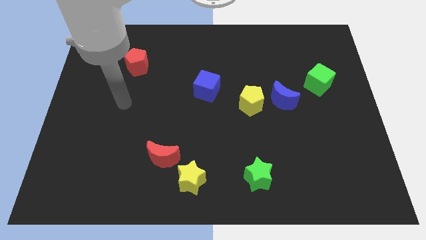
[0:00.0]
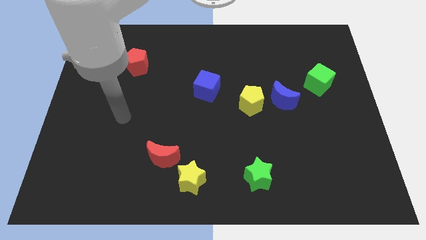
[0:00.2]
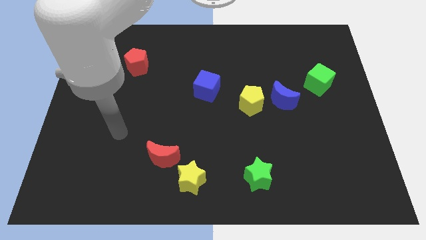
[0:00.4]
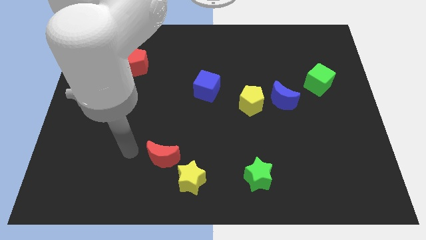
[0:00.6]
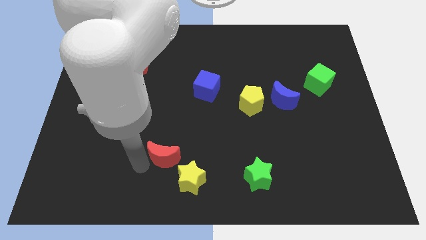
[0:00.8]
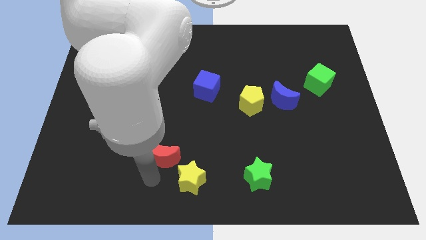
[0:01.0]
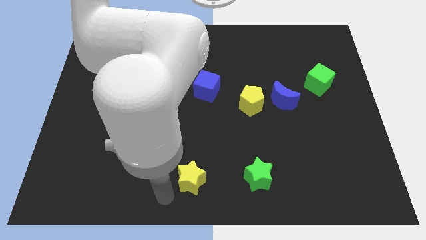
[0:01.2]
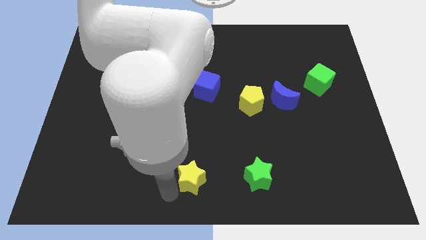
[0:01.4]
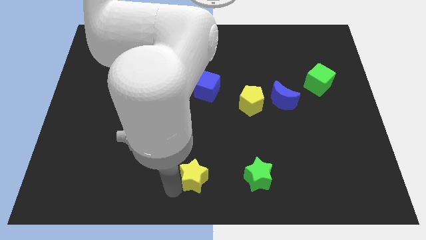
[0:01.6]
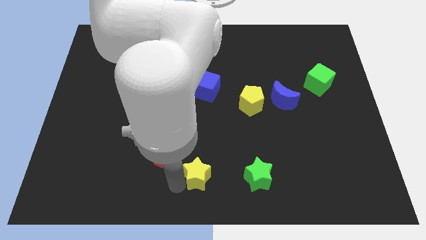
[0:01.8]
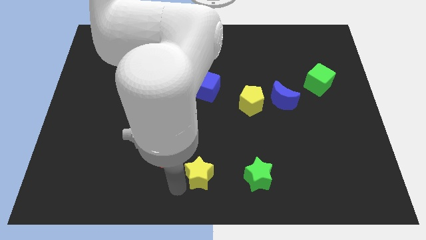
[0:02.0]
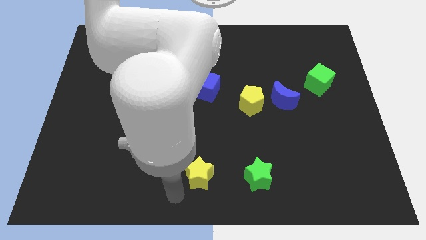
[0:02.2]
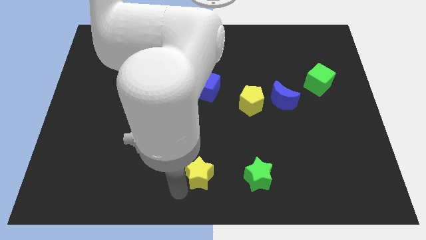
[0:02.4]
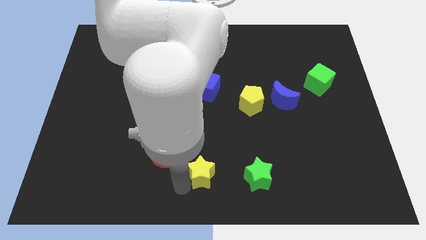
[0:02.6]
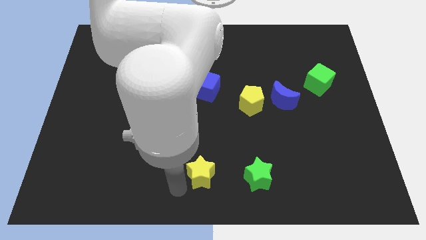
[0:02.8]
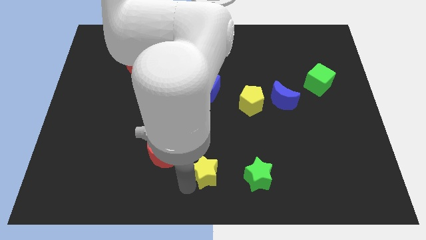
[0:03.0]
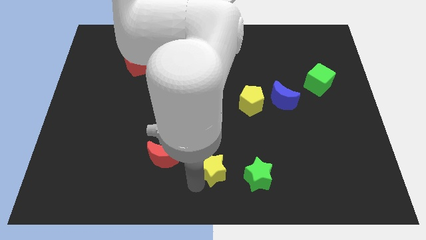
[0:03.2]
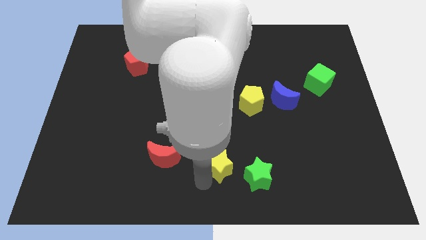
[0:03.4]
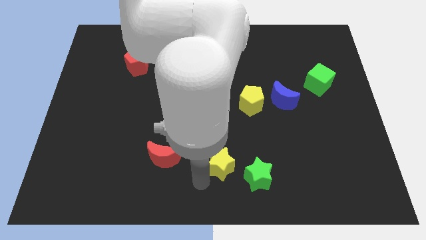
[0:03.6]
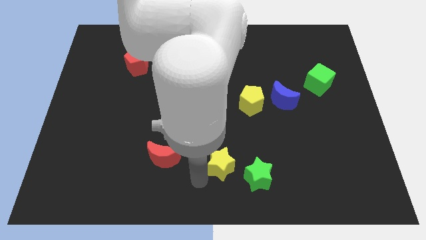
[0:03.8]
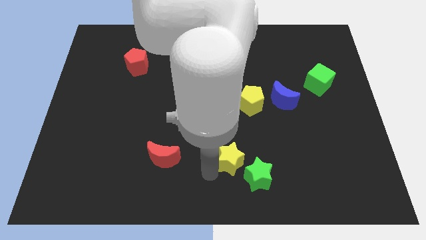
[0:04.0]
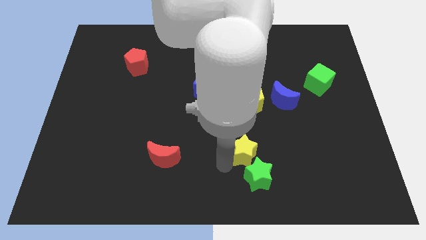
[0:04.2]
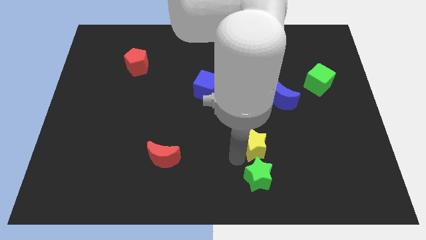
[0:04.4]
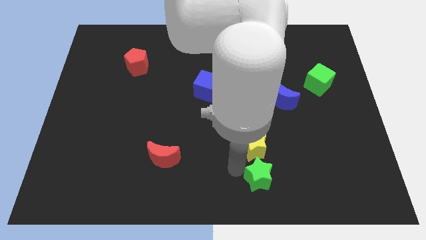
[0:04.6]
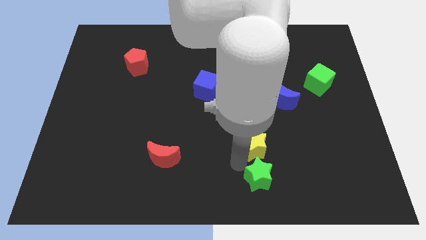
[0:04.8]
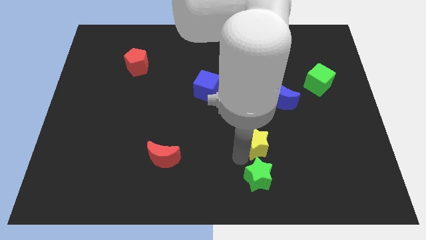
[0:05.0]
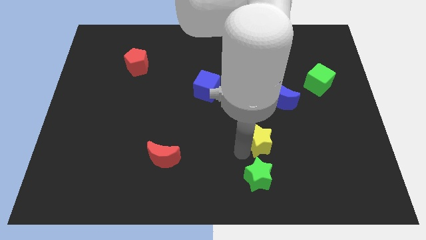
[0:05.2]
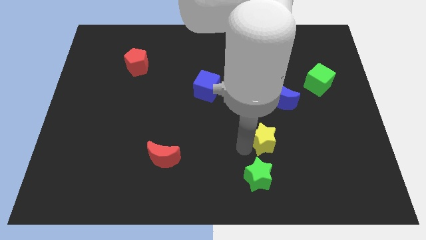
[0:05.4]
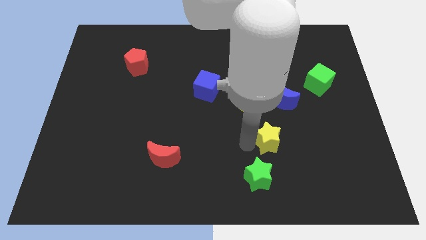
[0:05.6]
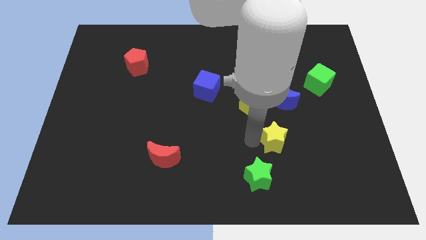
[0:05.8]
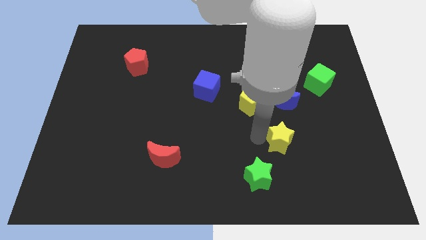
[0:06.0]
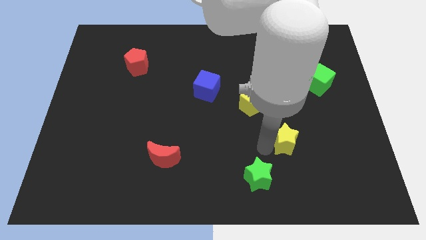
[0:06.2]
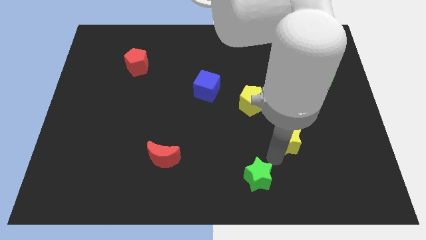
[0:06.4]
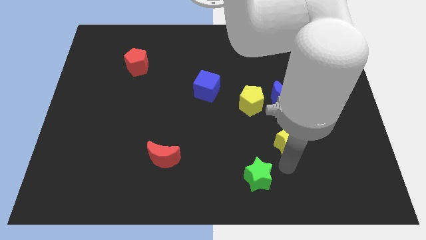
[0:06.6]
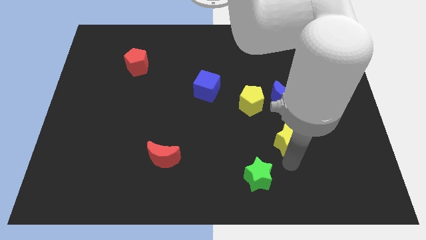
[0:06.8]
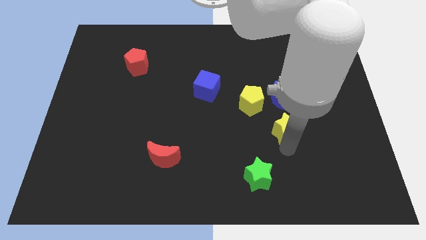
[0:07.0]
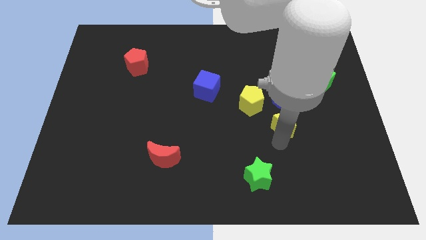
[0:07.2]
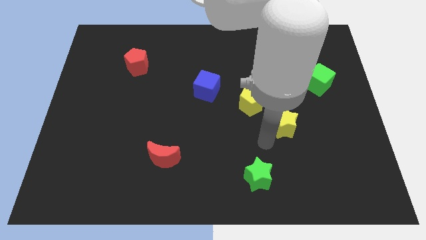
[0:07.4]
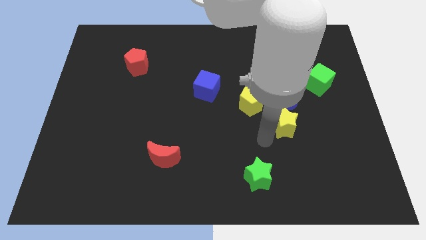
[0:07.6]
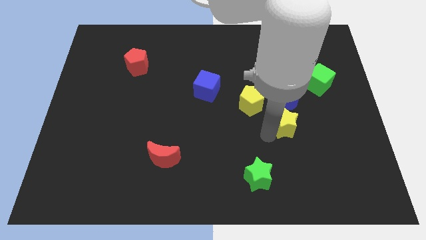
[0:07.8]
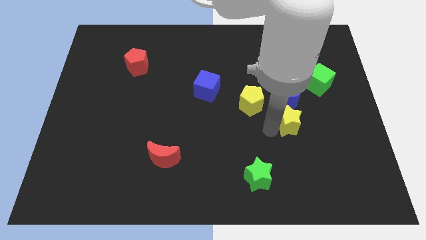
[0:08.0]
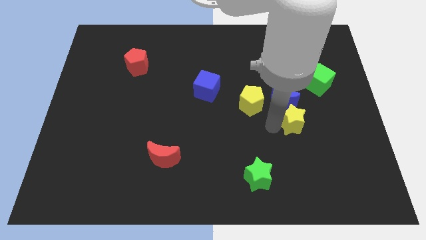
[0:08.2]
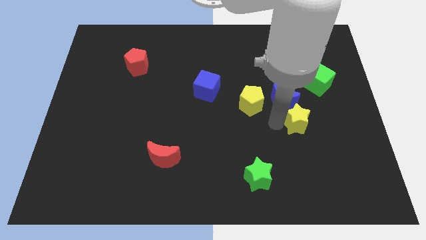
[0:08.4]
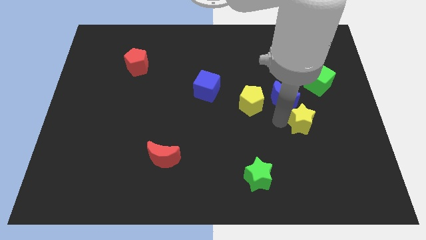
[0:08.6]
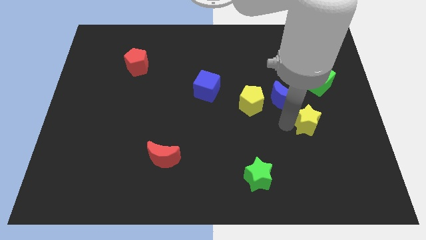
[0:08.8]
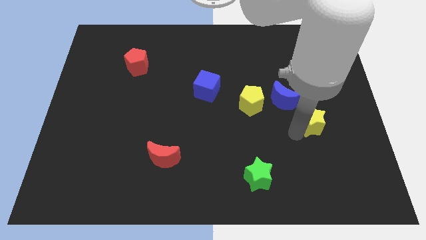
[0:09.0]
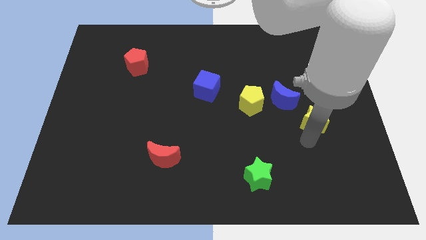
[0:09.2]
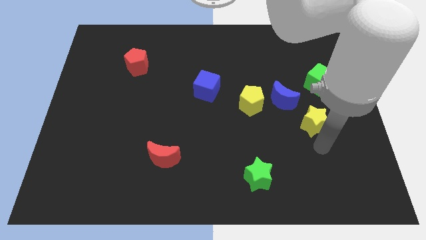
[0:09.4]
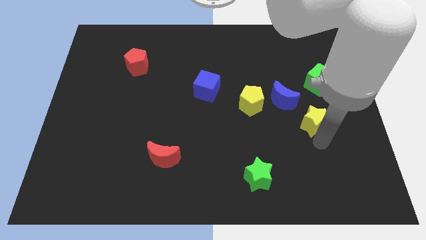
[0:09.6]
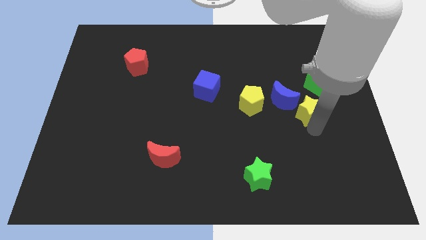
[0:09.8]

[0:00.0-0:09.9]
push the yellow star diagonally down and to the left of the green cube
